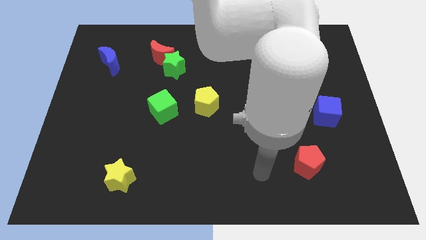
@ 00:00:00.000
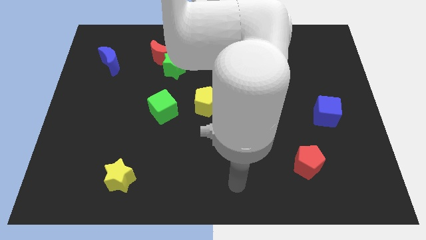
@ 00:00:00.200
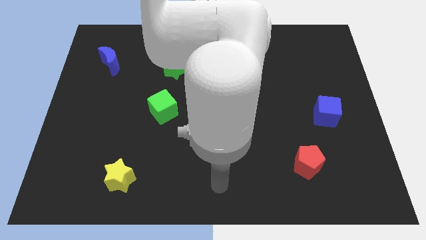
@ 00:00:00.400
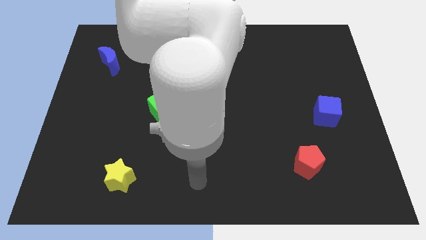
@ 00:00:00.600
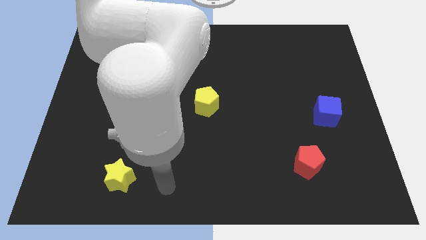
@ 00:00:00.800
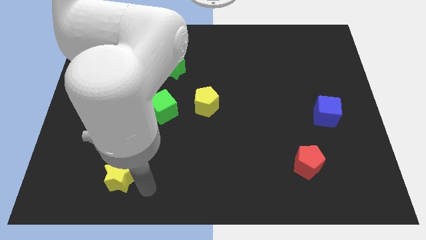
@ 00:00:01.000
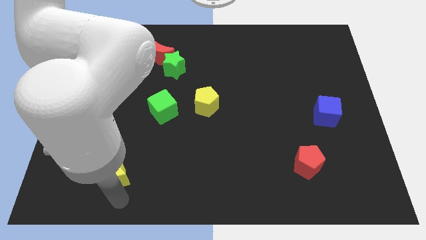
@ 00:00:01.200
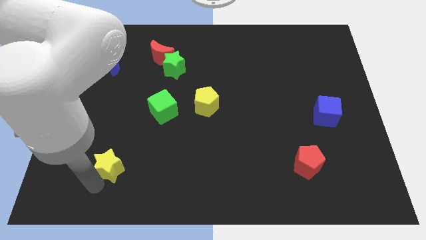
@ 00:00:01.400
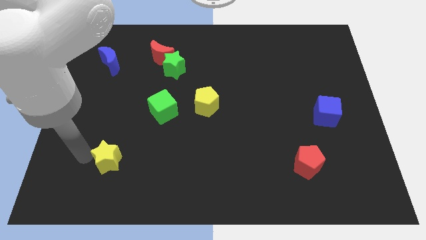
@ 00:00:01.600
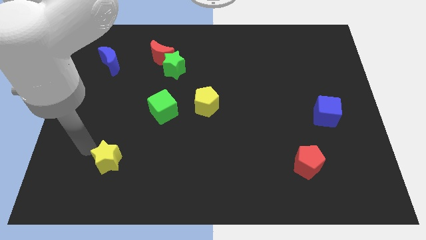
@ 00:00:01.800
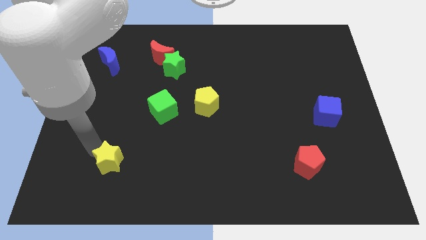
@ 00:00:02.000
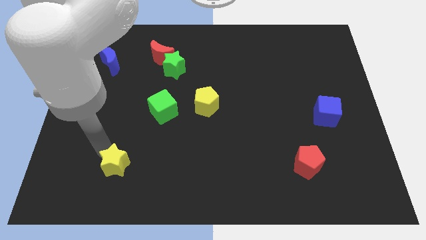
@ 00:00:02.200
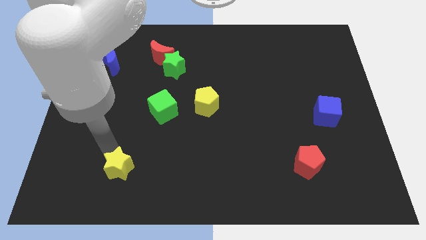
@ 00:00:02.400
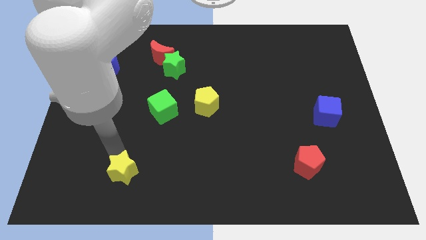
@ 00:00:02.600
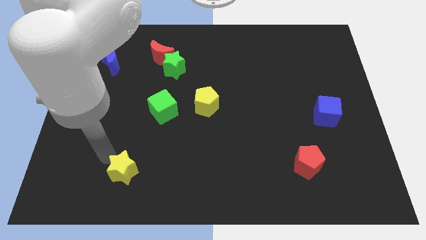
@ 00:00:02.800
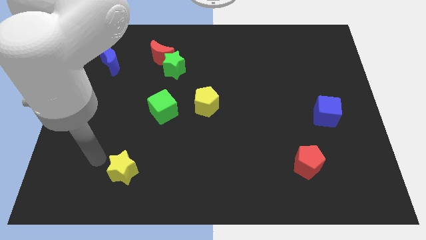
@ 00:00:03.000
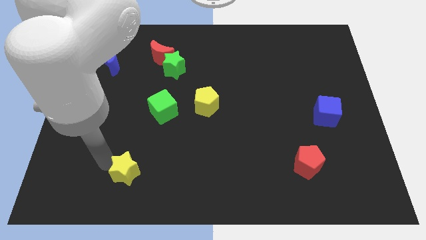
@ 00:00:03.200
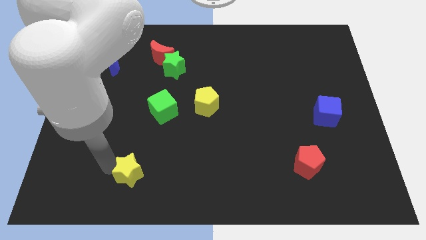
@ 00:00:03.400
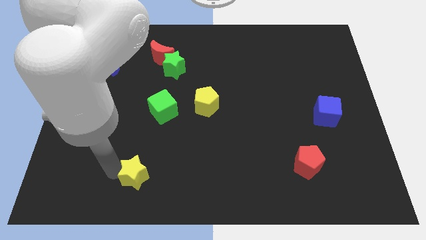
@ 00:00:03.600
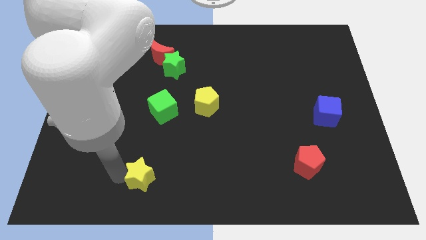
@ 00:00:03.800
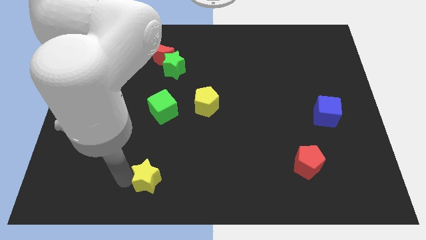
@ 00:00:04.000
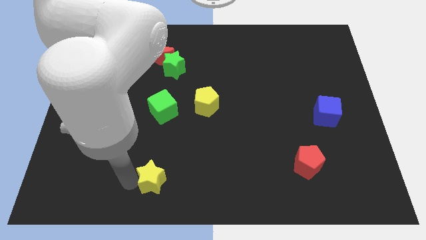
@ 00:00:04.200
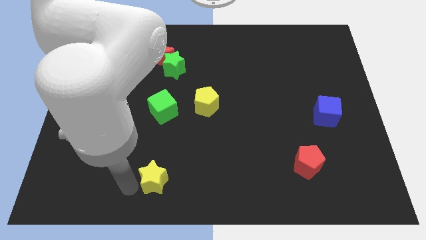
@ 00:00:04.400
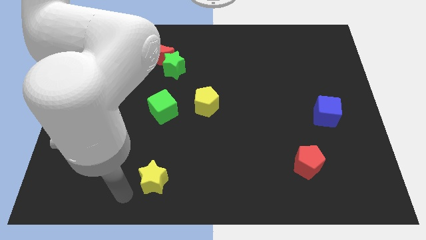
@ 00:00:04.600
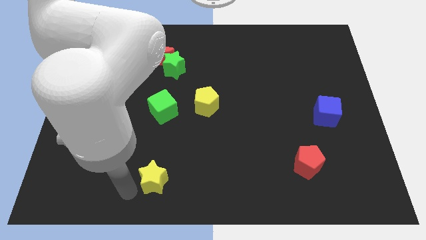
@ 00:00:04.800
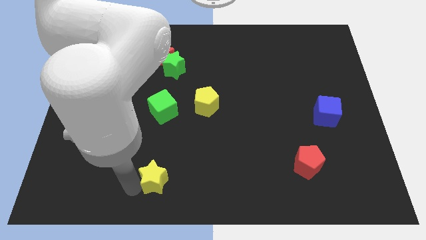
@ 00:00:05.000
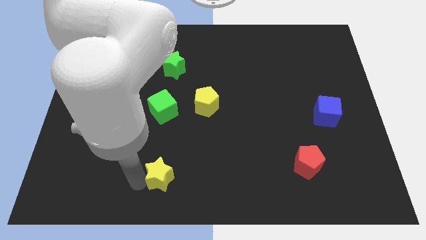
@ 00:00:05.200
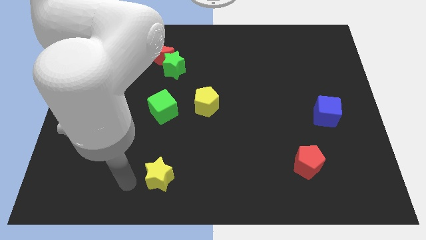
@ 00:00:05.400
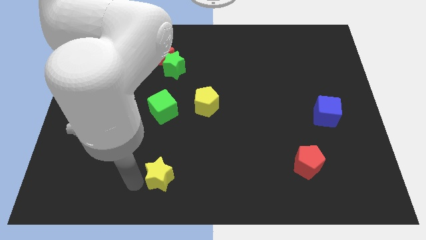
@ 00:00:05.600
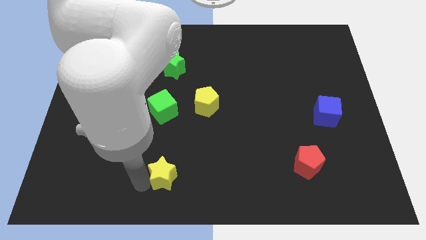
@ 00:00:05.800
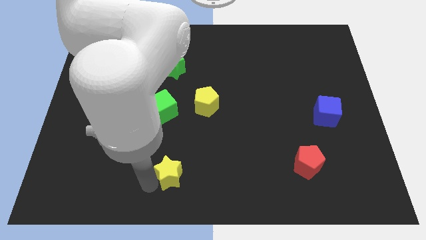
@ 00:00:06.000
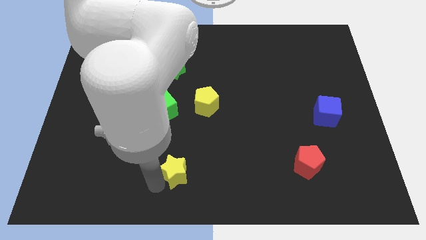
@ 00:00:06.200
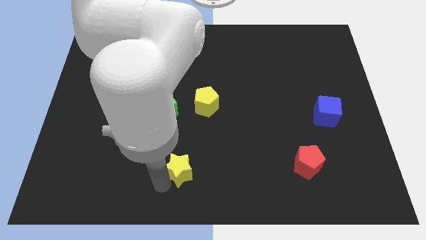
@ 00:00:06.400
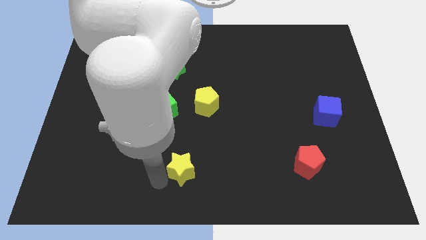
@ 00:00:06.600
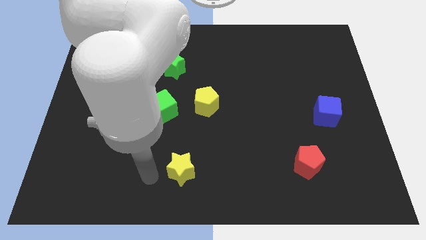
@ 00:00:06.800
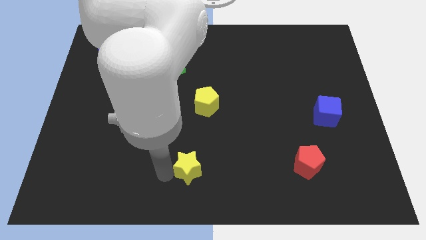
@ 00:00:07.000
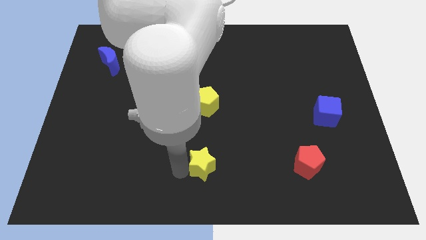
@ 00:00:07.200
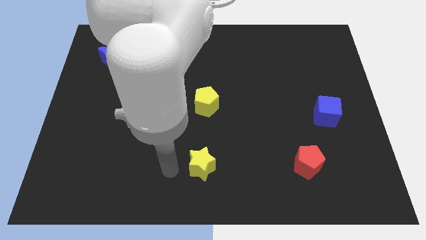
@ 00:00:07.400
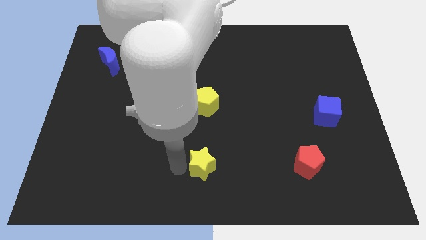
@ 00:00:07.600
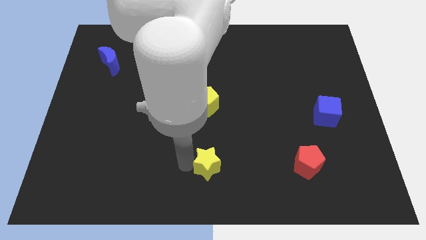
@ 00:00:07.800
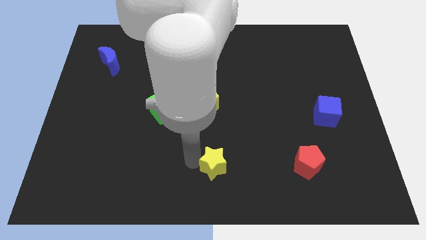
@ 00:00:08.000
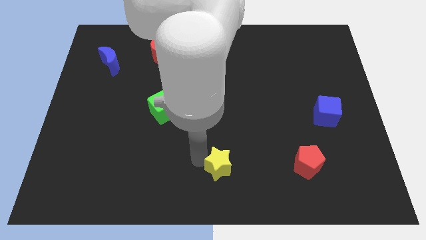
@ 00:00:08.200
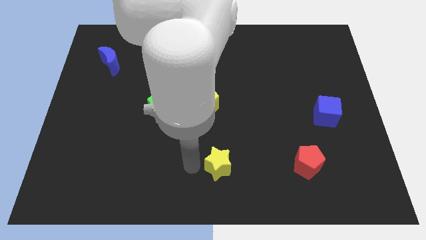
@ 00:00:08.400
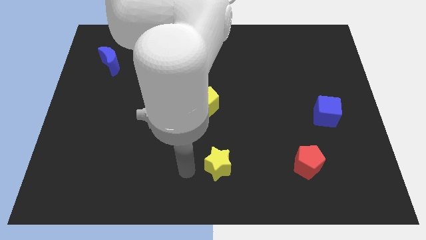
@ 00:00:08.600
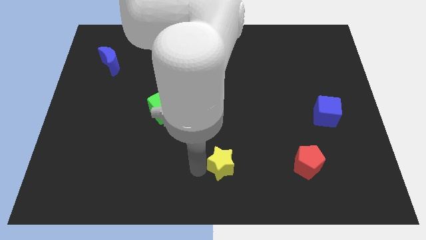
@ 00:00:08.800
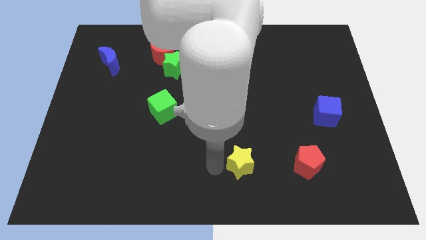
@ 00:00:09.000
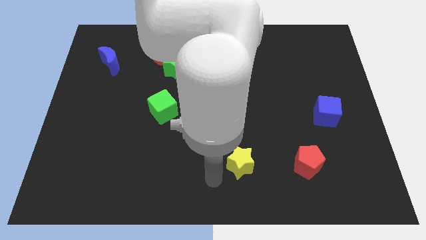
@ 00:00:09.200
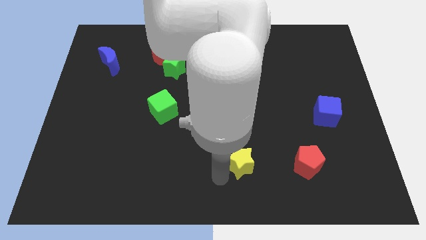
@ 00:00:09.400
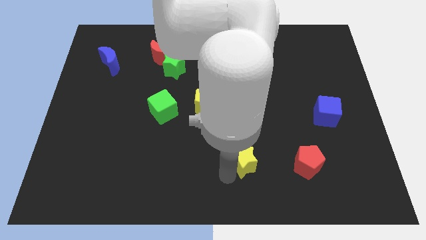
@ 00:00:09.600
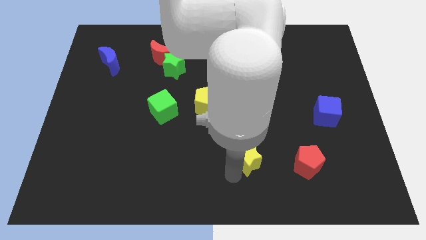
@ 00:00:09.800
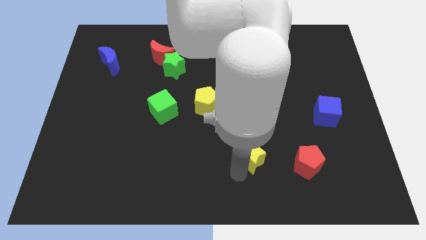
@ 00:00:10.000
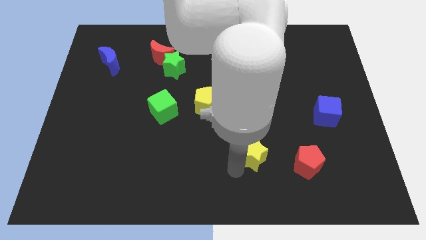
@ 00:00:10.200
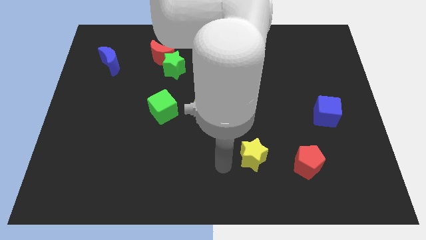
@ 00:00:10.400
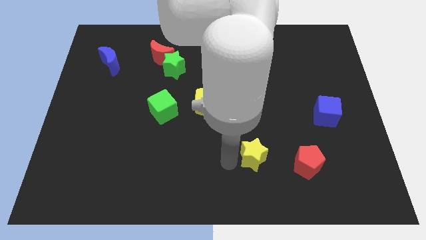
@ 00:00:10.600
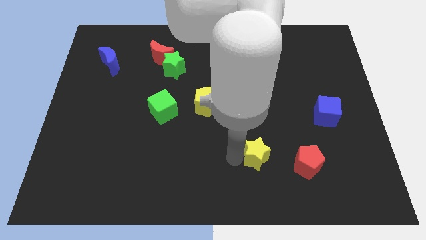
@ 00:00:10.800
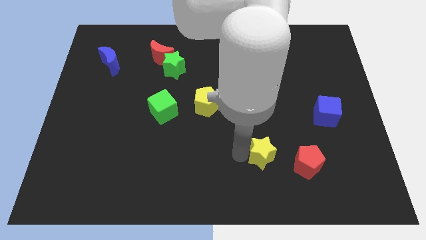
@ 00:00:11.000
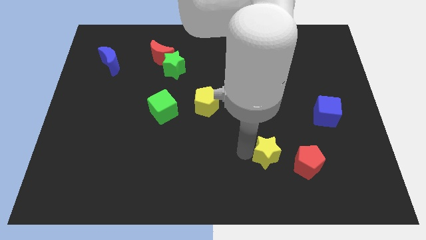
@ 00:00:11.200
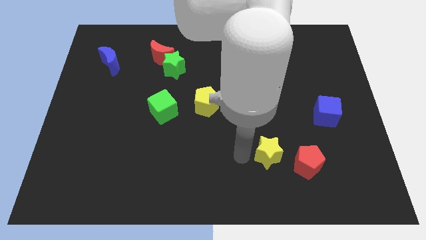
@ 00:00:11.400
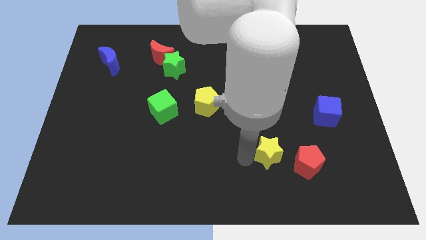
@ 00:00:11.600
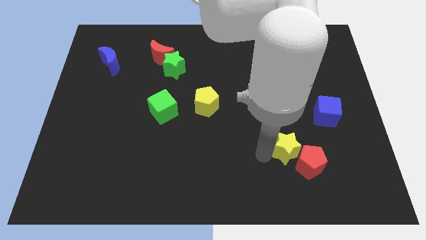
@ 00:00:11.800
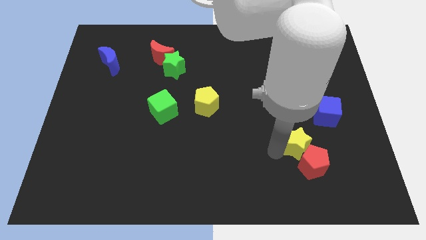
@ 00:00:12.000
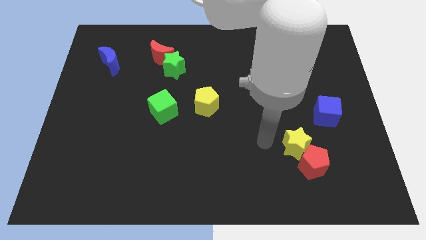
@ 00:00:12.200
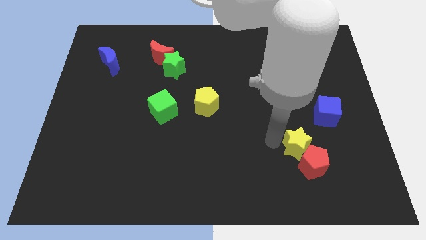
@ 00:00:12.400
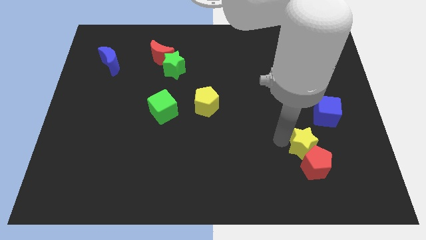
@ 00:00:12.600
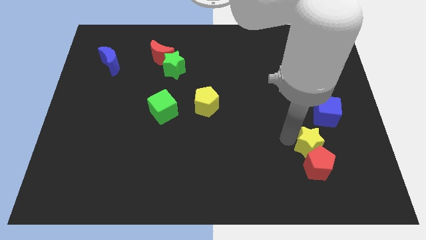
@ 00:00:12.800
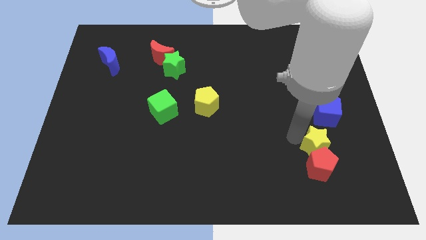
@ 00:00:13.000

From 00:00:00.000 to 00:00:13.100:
slide the yellow star below the blue cube
